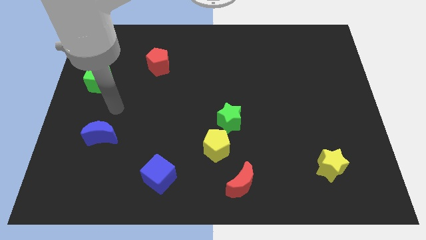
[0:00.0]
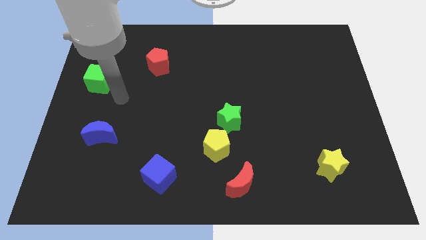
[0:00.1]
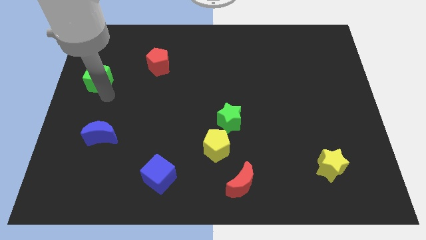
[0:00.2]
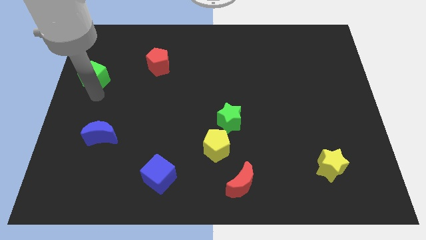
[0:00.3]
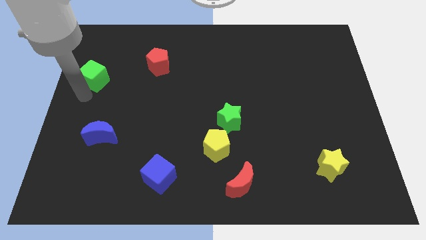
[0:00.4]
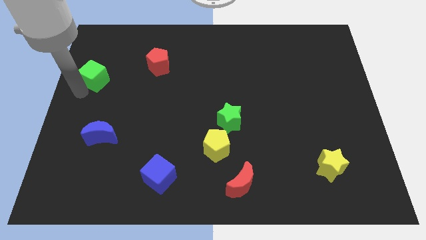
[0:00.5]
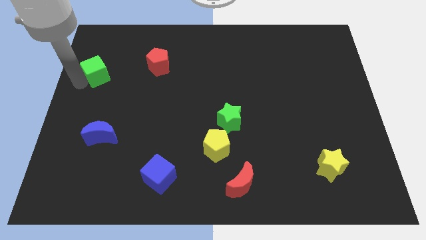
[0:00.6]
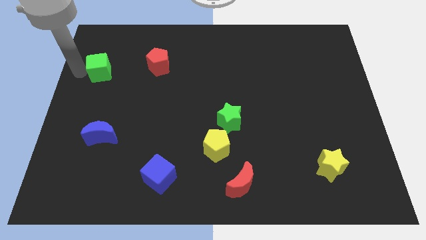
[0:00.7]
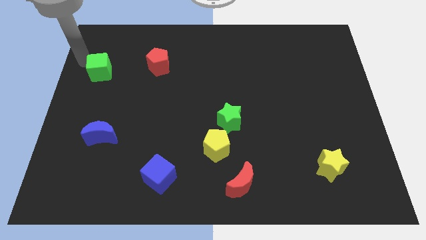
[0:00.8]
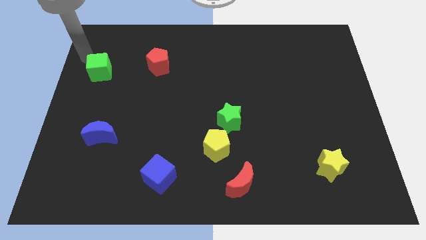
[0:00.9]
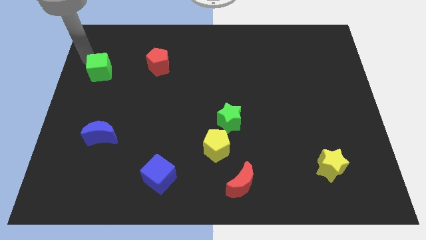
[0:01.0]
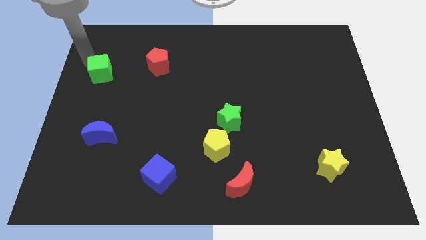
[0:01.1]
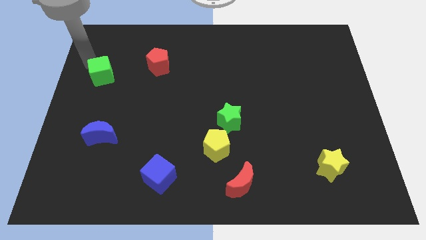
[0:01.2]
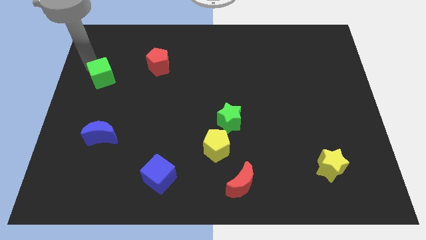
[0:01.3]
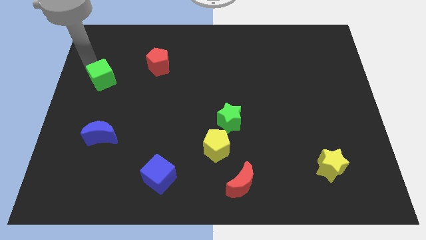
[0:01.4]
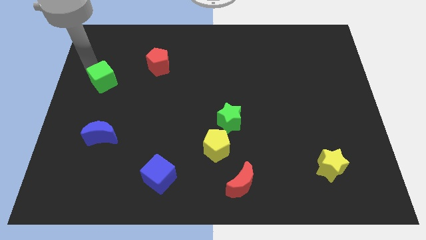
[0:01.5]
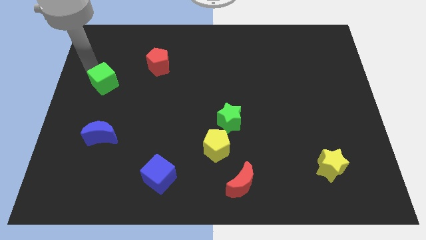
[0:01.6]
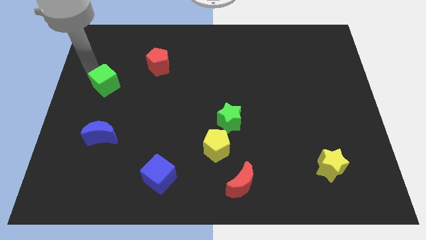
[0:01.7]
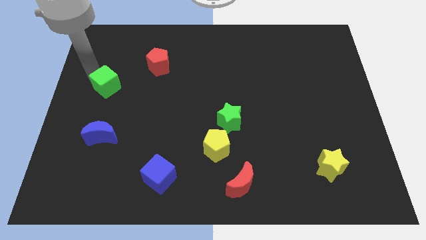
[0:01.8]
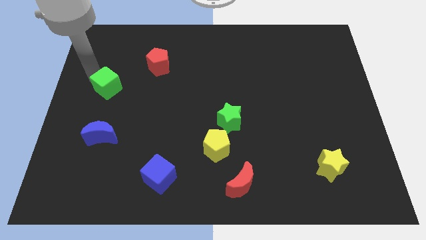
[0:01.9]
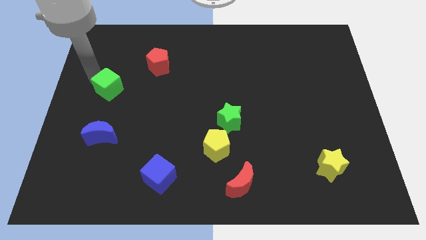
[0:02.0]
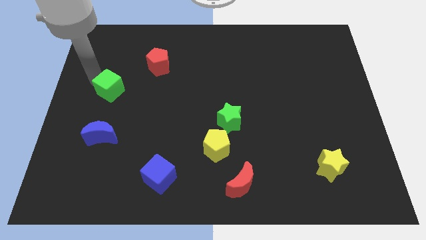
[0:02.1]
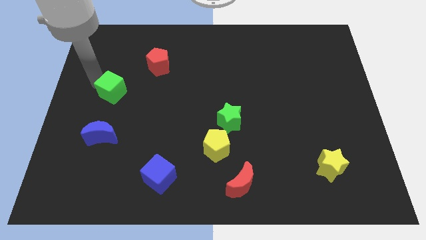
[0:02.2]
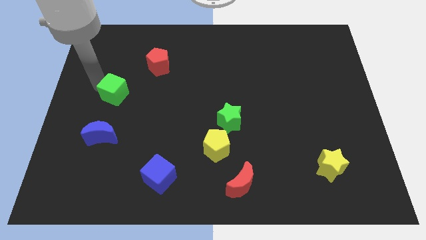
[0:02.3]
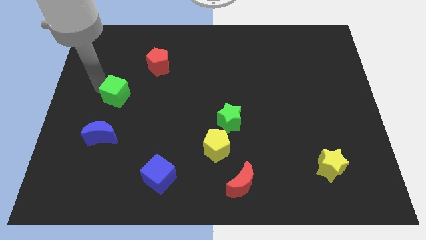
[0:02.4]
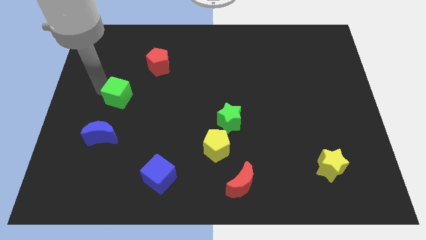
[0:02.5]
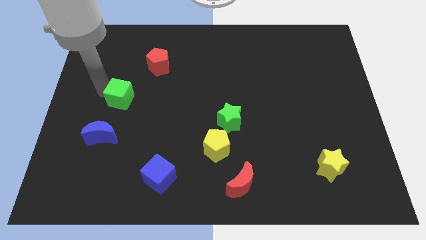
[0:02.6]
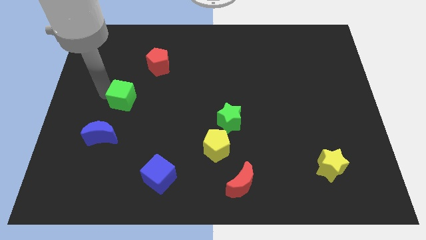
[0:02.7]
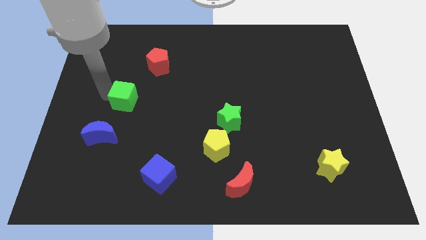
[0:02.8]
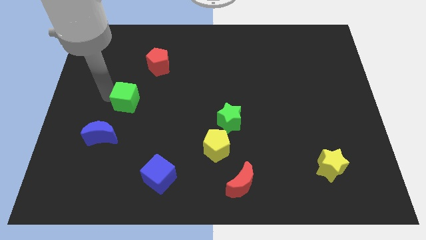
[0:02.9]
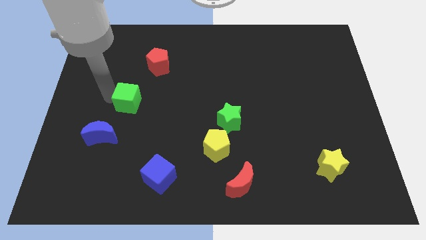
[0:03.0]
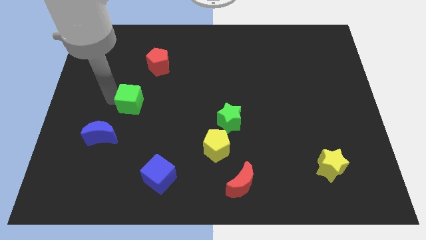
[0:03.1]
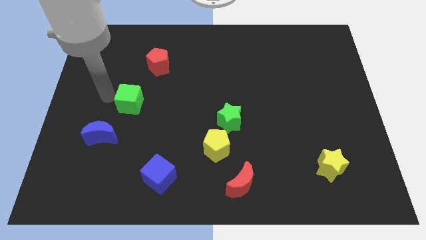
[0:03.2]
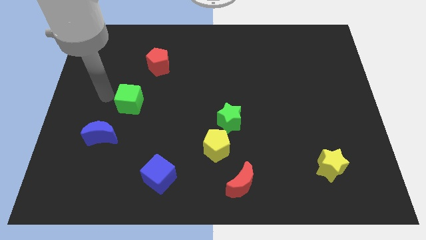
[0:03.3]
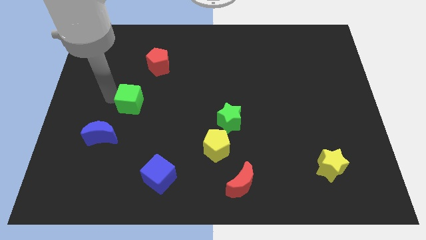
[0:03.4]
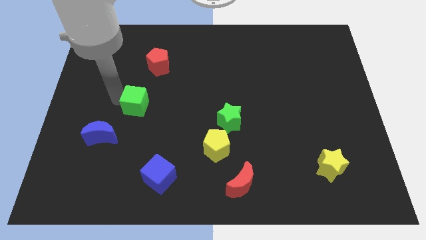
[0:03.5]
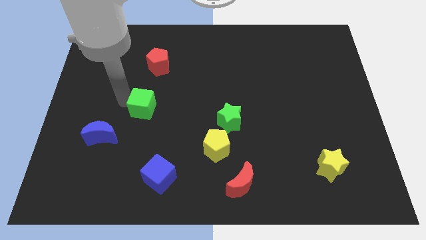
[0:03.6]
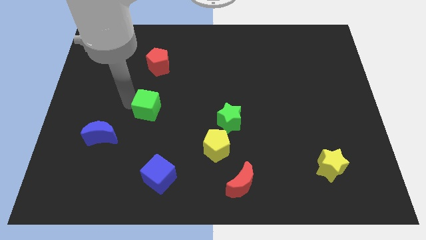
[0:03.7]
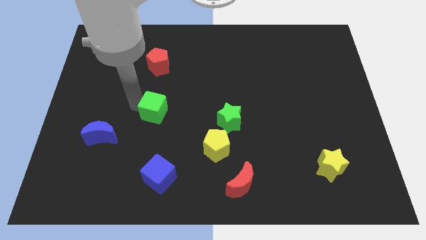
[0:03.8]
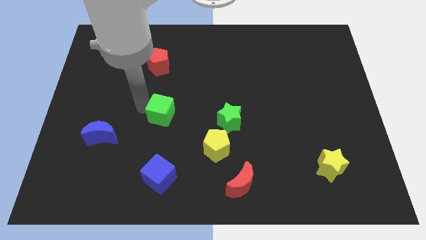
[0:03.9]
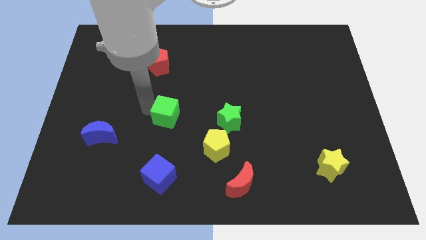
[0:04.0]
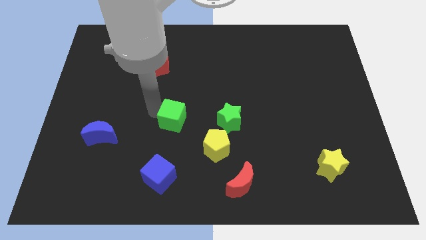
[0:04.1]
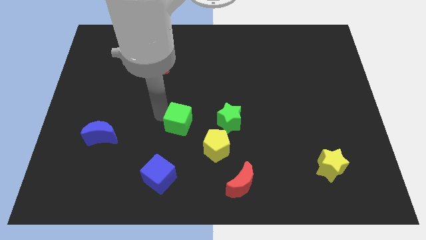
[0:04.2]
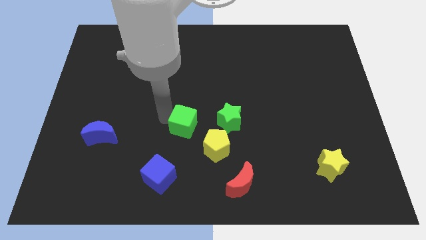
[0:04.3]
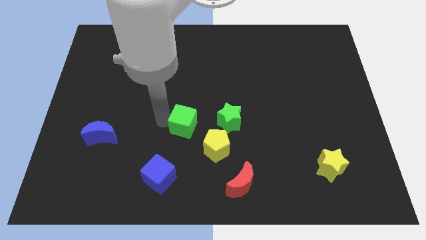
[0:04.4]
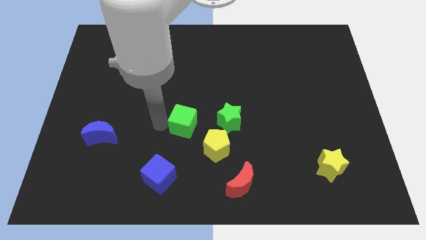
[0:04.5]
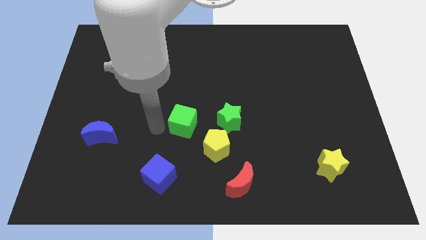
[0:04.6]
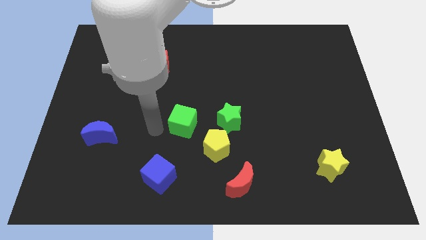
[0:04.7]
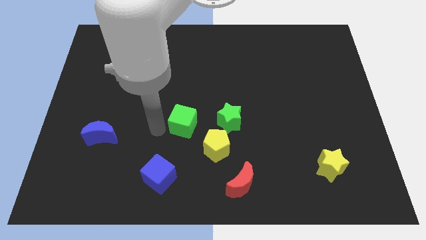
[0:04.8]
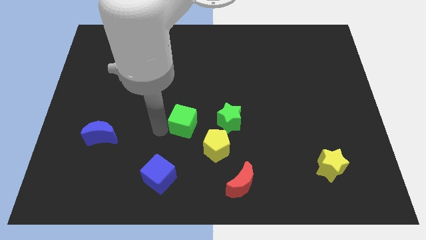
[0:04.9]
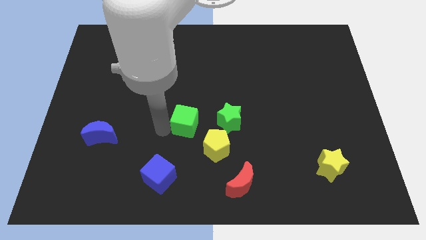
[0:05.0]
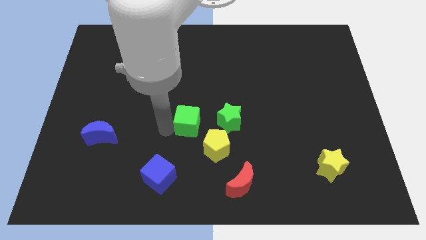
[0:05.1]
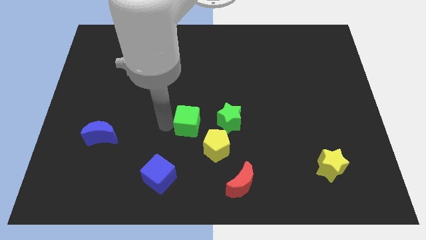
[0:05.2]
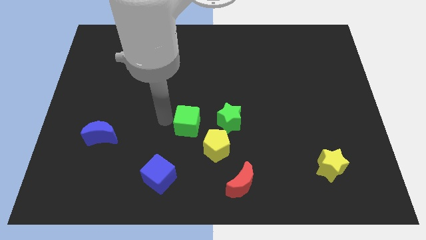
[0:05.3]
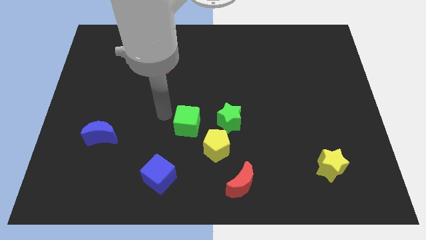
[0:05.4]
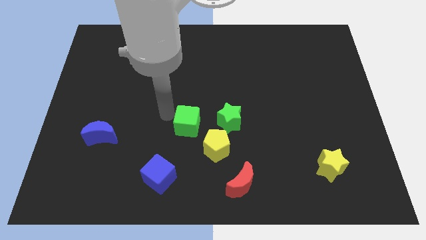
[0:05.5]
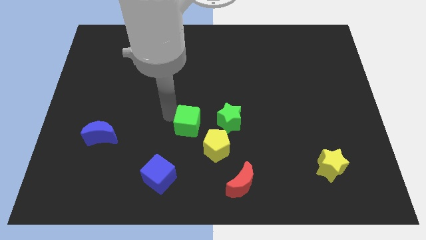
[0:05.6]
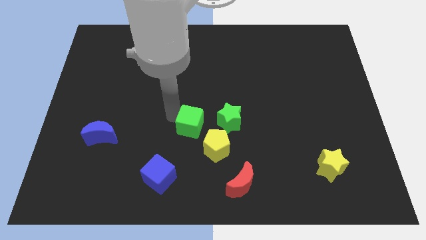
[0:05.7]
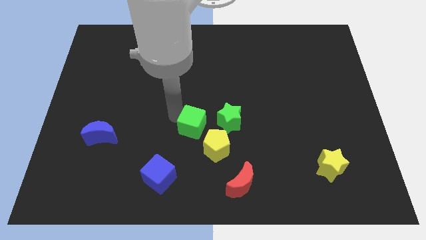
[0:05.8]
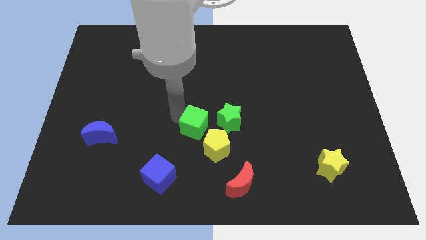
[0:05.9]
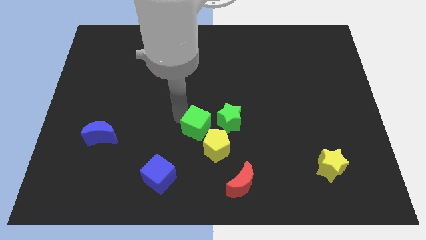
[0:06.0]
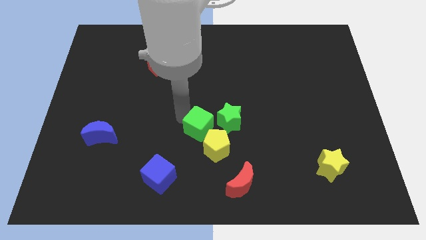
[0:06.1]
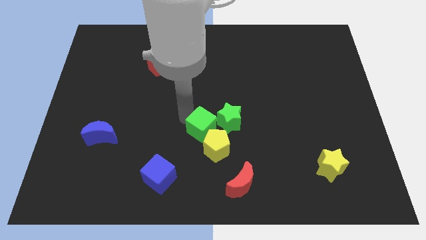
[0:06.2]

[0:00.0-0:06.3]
put the green cube towards the yellow pentagon

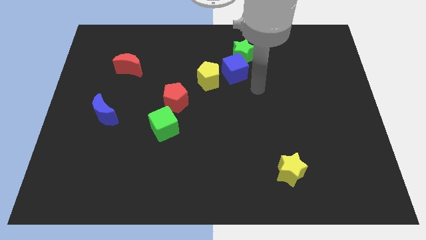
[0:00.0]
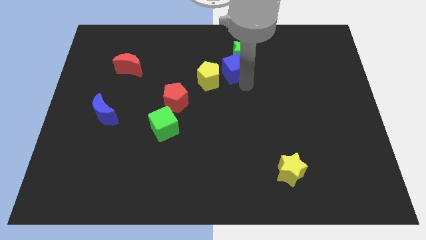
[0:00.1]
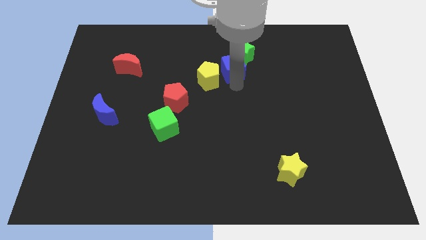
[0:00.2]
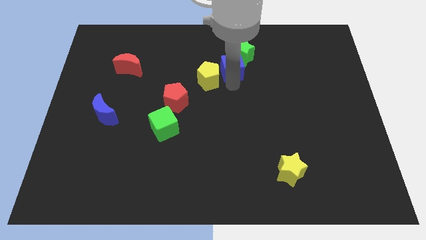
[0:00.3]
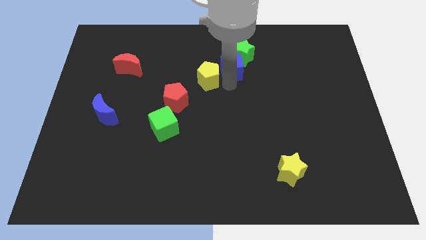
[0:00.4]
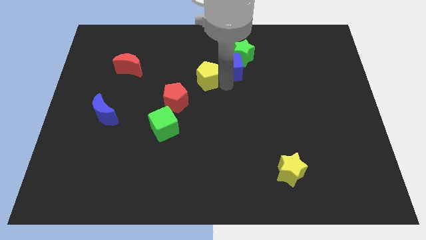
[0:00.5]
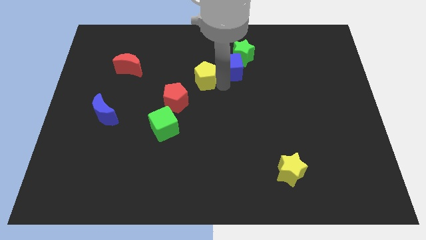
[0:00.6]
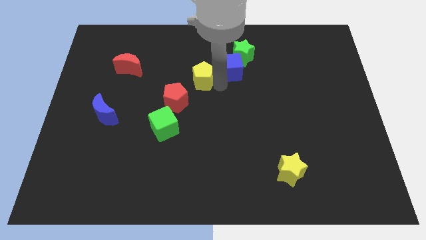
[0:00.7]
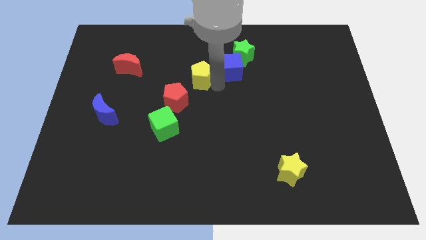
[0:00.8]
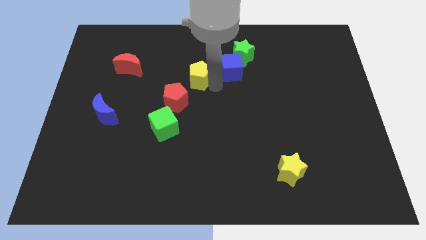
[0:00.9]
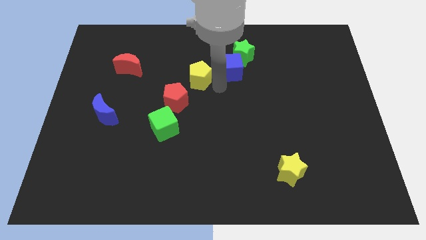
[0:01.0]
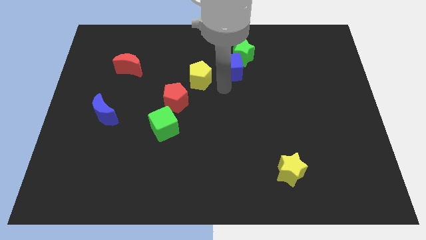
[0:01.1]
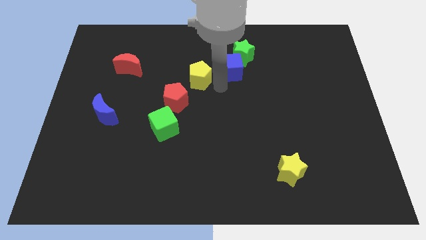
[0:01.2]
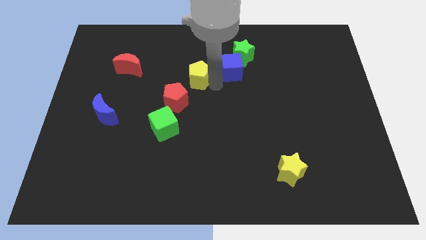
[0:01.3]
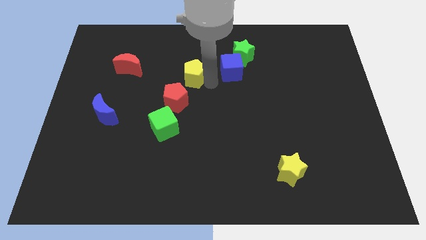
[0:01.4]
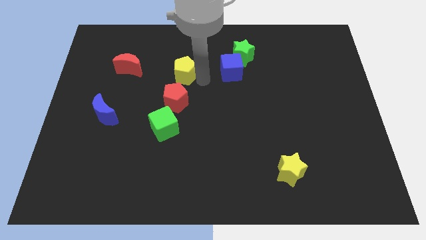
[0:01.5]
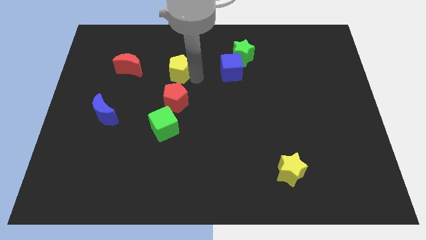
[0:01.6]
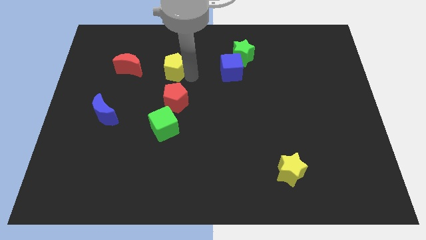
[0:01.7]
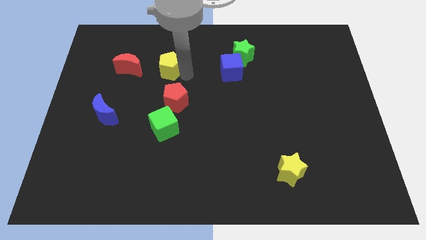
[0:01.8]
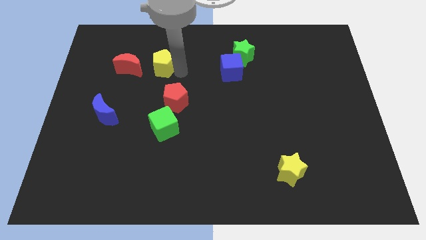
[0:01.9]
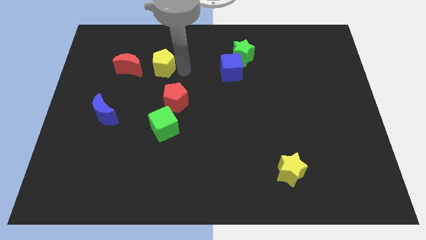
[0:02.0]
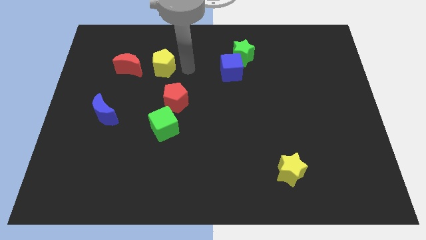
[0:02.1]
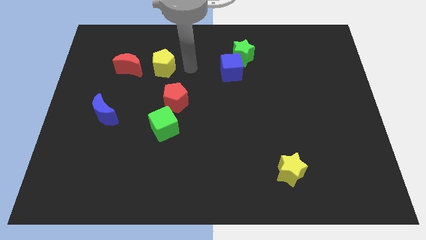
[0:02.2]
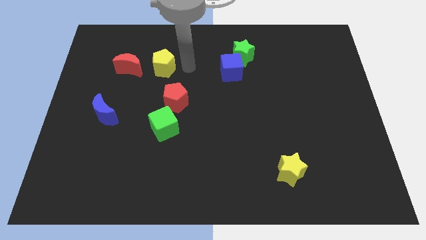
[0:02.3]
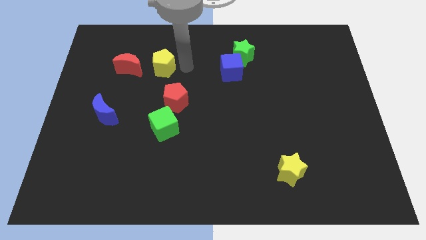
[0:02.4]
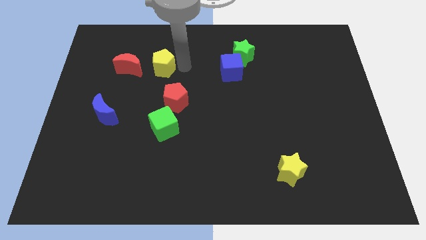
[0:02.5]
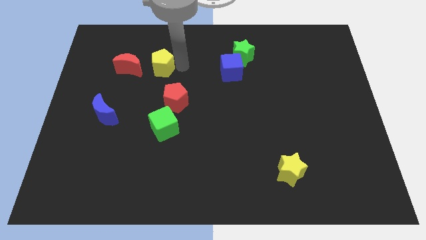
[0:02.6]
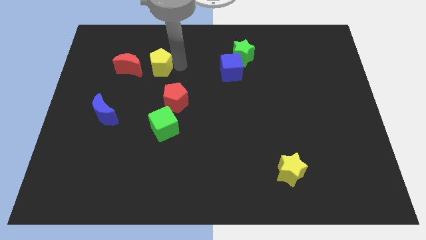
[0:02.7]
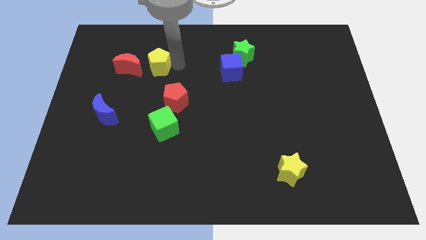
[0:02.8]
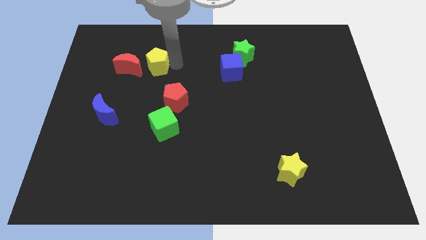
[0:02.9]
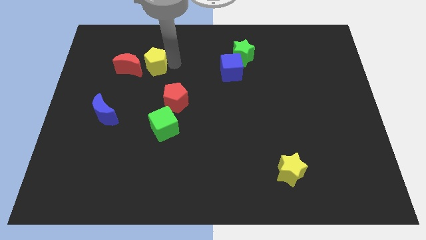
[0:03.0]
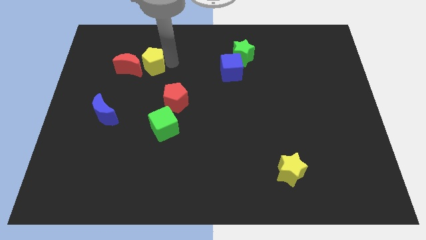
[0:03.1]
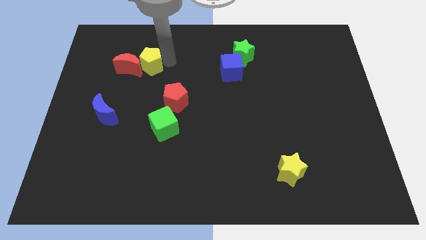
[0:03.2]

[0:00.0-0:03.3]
move the yellow pentagon next to the red moon
